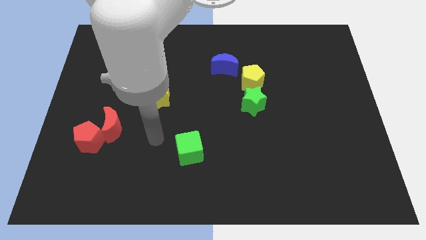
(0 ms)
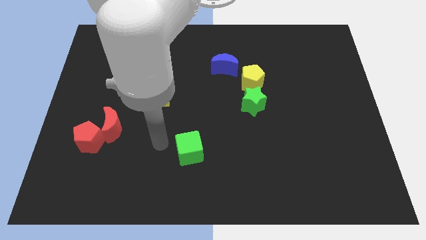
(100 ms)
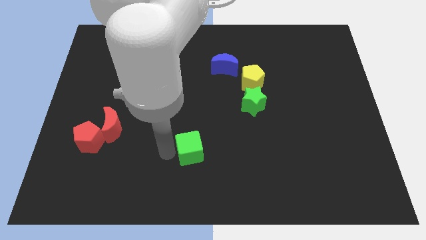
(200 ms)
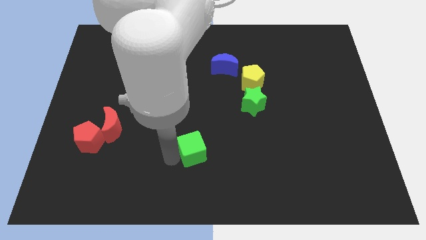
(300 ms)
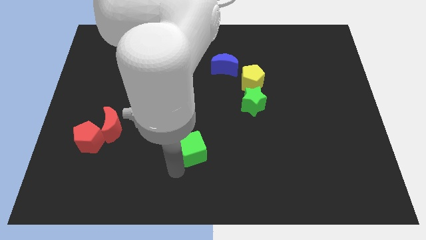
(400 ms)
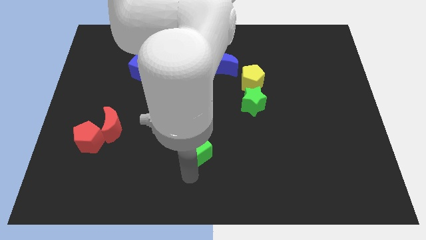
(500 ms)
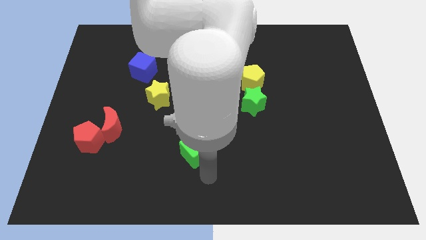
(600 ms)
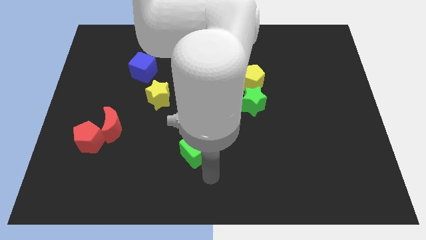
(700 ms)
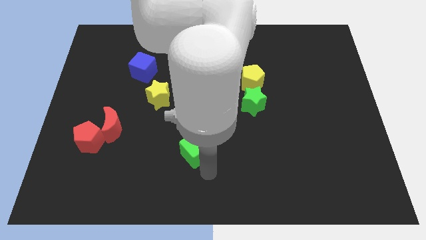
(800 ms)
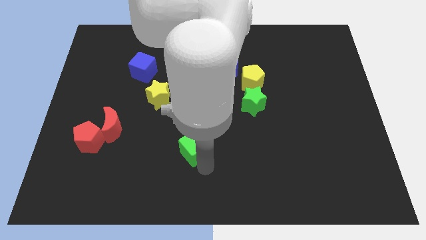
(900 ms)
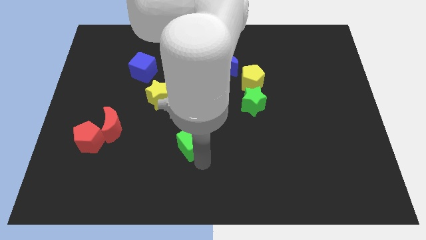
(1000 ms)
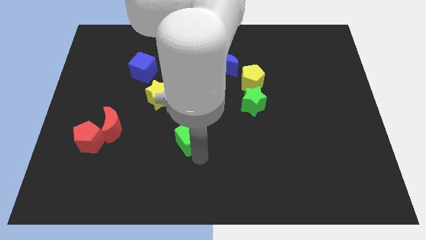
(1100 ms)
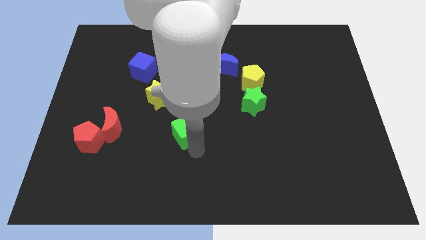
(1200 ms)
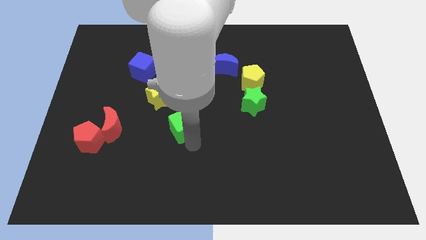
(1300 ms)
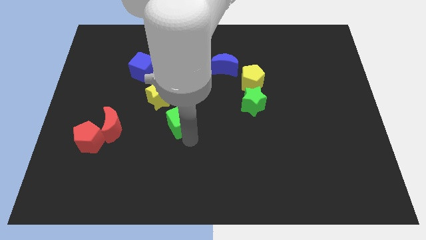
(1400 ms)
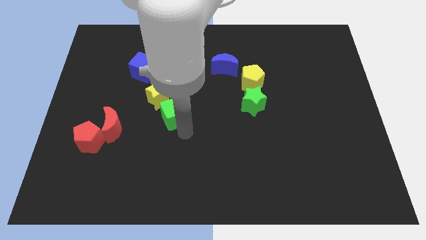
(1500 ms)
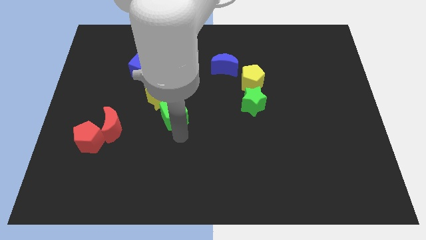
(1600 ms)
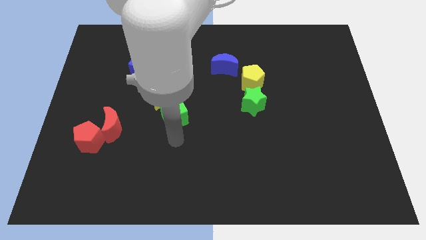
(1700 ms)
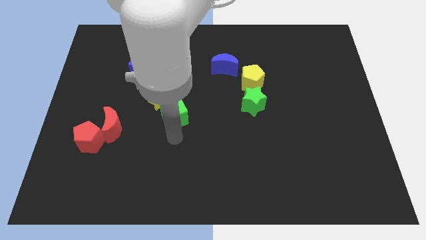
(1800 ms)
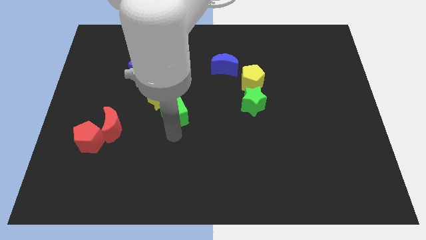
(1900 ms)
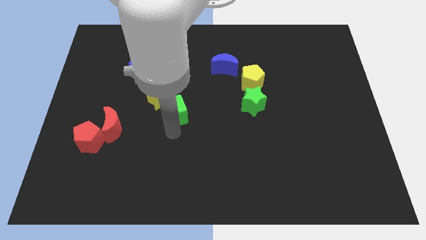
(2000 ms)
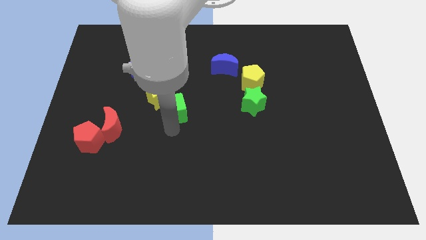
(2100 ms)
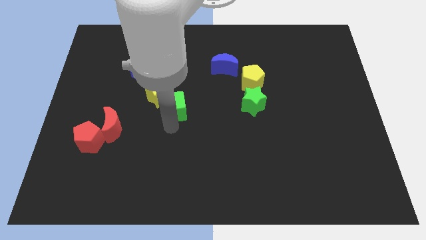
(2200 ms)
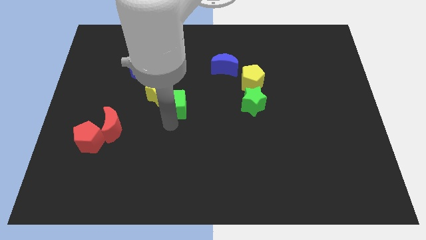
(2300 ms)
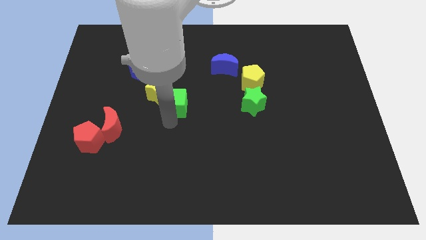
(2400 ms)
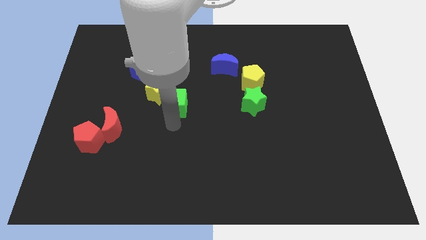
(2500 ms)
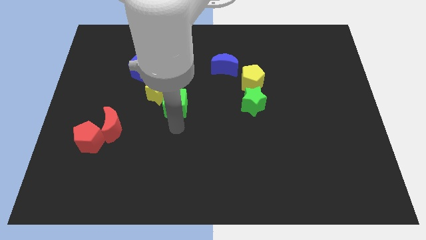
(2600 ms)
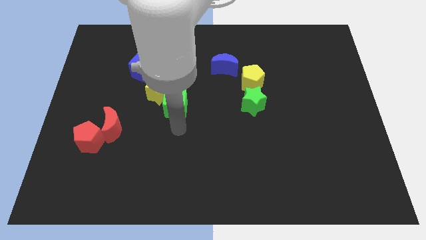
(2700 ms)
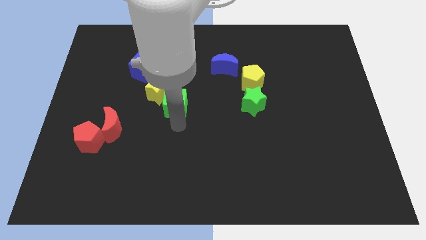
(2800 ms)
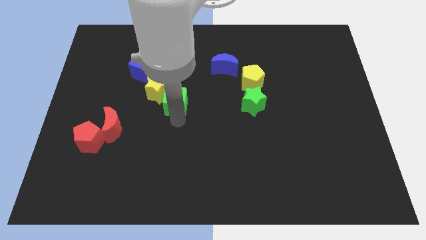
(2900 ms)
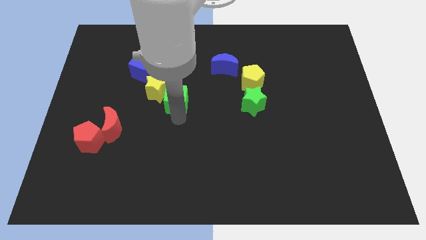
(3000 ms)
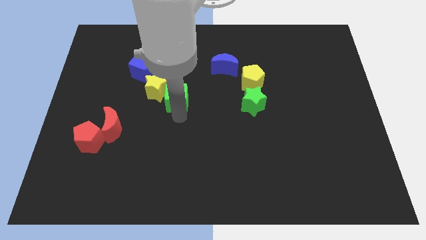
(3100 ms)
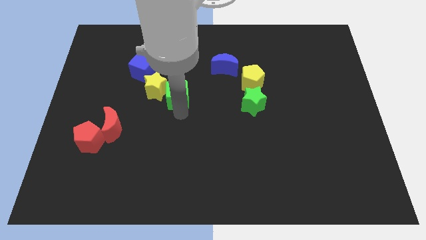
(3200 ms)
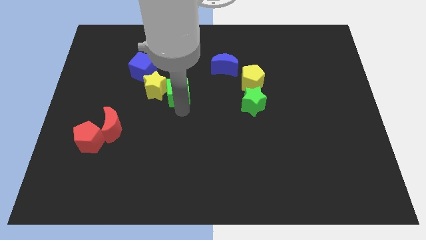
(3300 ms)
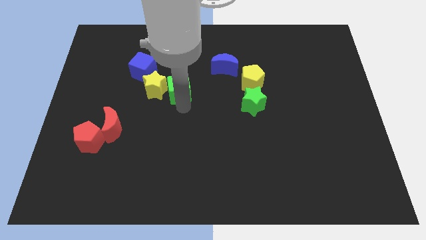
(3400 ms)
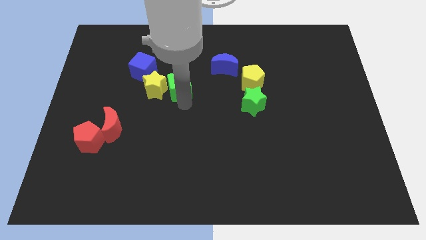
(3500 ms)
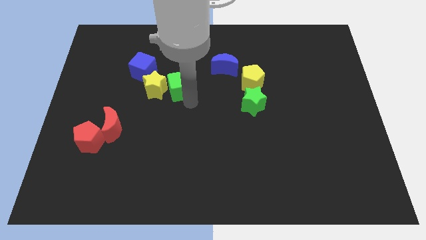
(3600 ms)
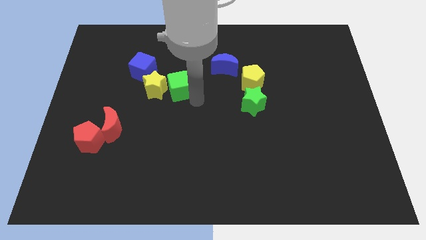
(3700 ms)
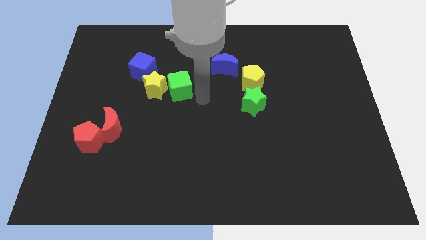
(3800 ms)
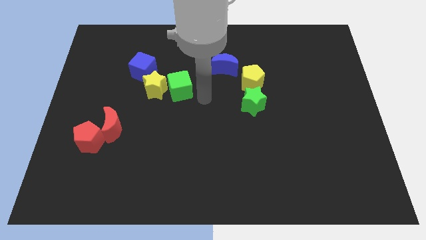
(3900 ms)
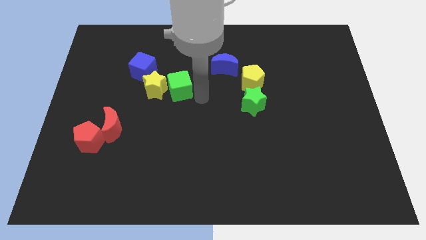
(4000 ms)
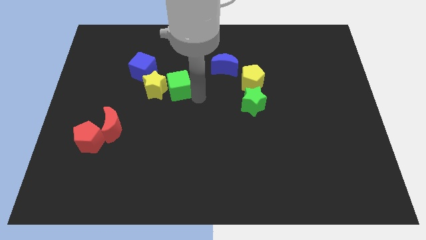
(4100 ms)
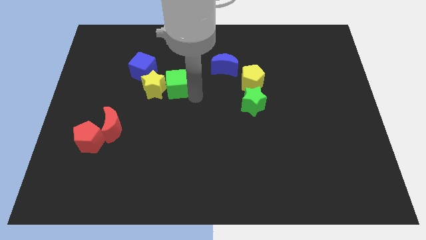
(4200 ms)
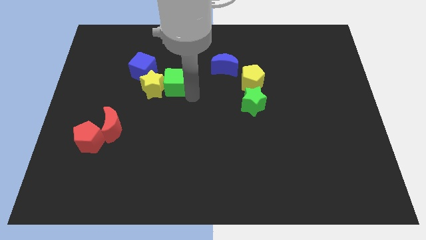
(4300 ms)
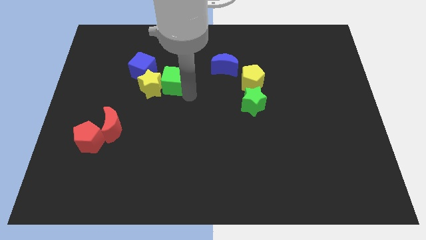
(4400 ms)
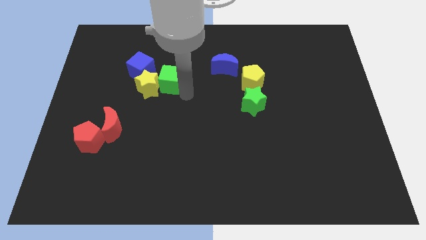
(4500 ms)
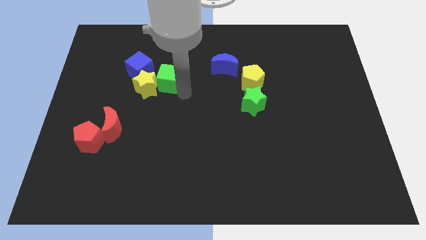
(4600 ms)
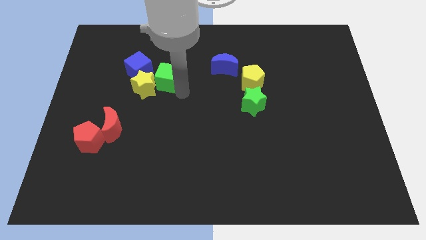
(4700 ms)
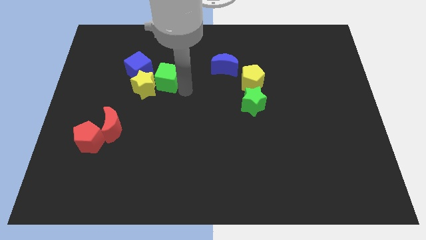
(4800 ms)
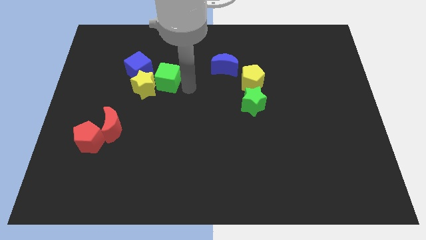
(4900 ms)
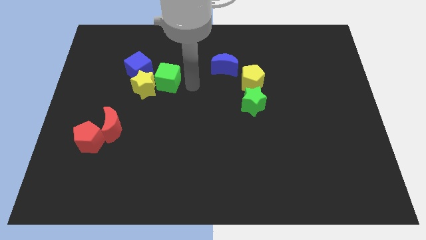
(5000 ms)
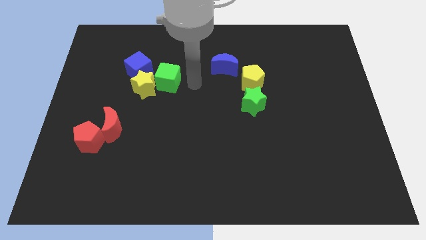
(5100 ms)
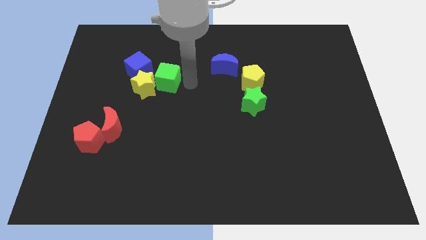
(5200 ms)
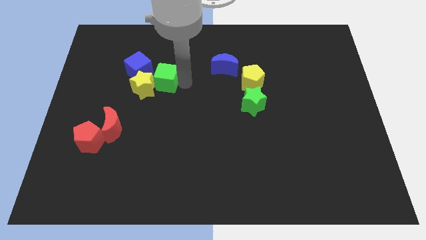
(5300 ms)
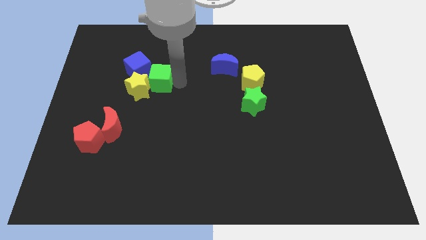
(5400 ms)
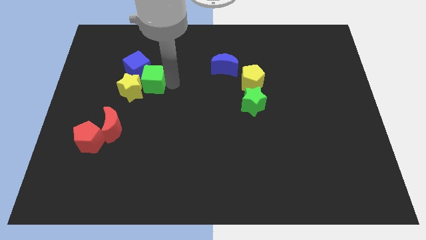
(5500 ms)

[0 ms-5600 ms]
move the green cube to the blue cube

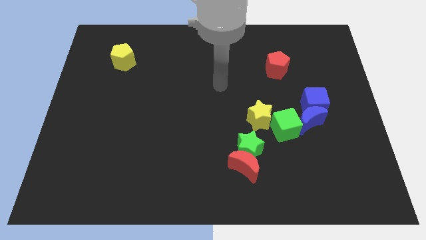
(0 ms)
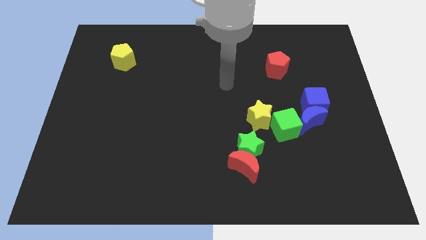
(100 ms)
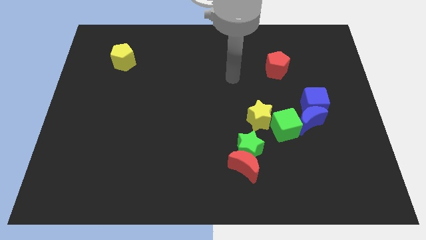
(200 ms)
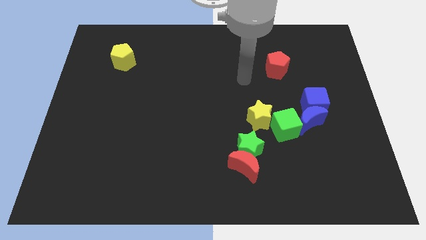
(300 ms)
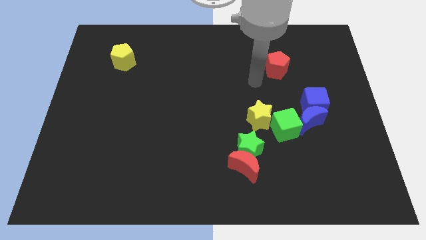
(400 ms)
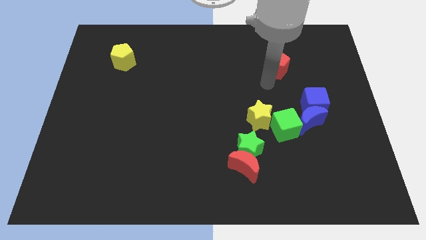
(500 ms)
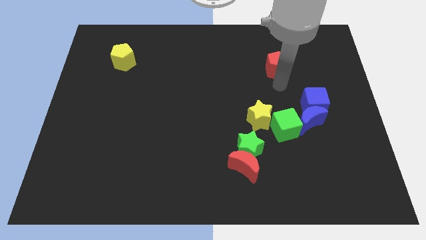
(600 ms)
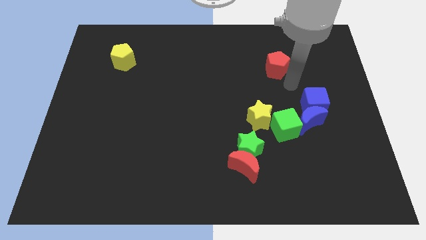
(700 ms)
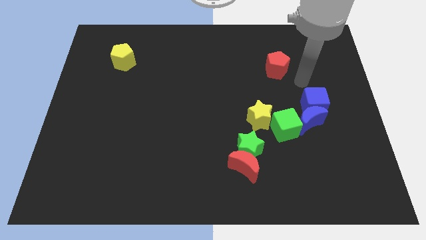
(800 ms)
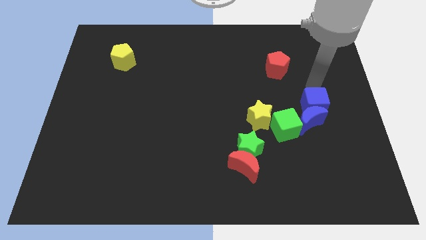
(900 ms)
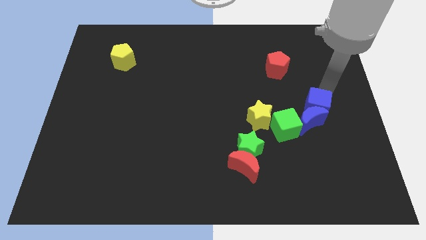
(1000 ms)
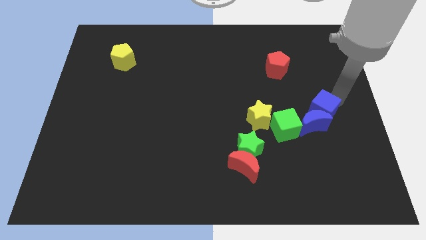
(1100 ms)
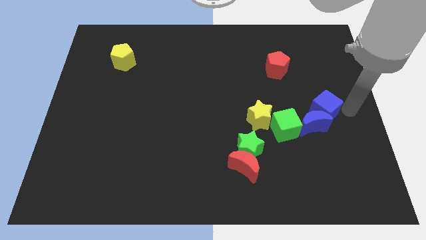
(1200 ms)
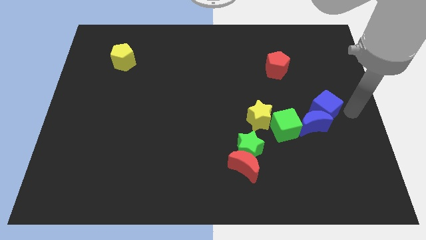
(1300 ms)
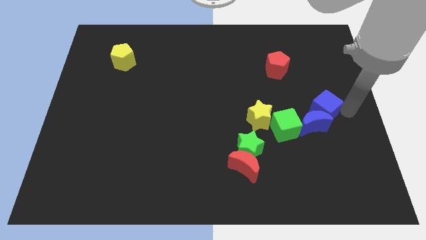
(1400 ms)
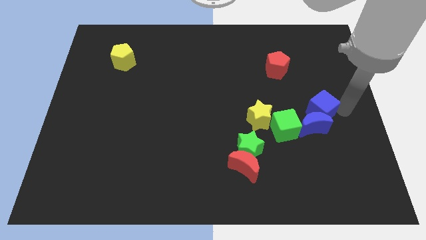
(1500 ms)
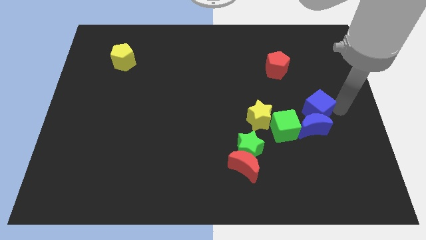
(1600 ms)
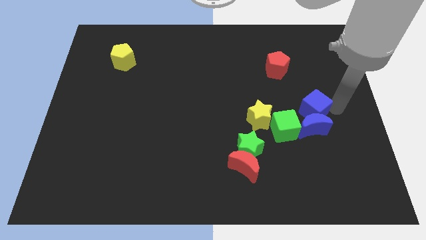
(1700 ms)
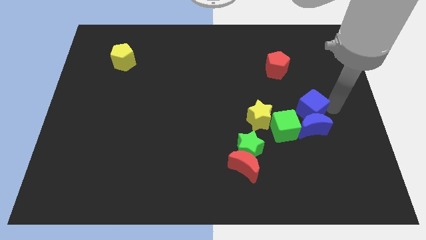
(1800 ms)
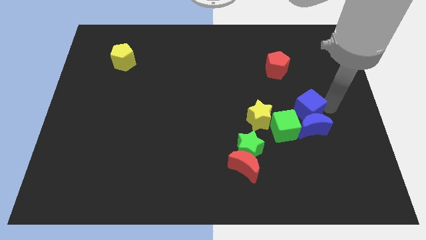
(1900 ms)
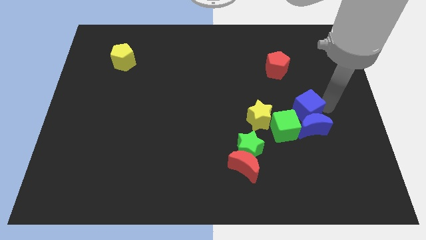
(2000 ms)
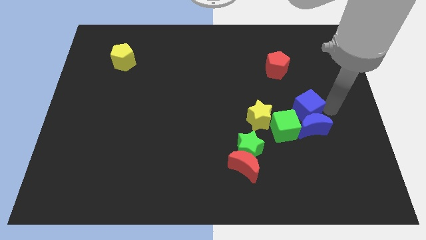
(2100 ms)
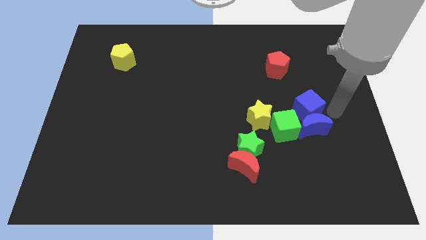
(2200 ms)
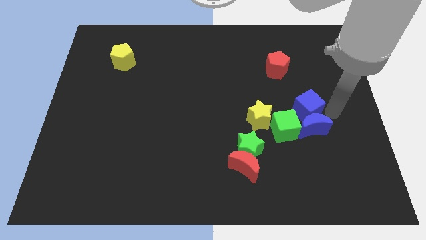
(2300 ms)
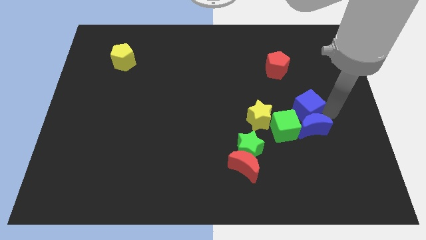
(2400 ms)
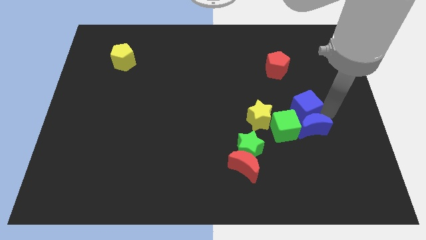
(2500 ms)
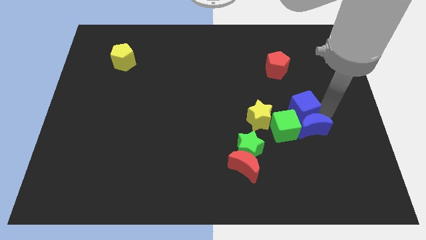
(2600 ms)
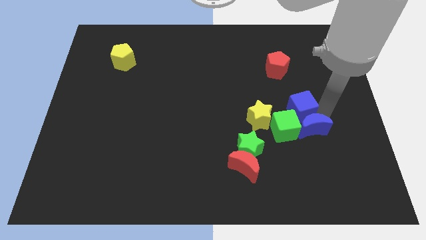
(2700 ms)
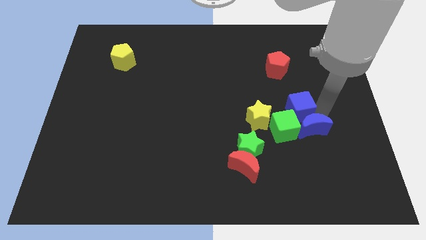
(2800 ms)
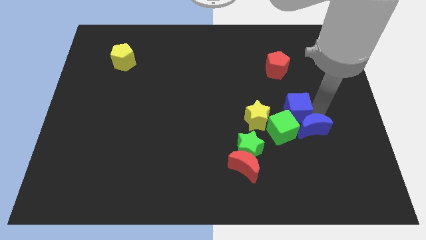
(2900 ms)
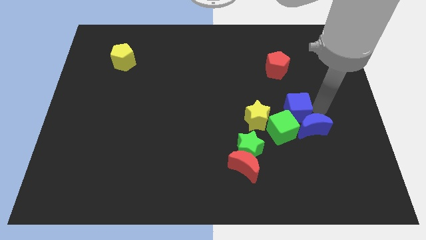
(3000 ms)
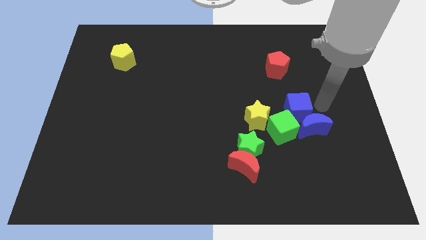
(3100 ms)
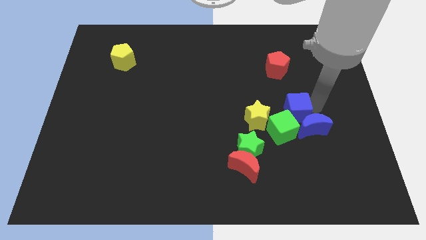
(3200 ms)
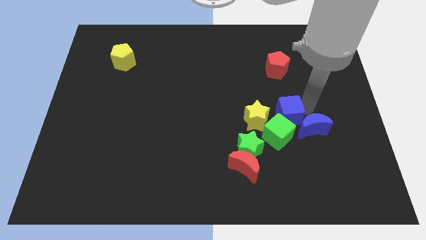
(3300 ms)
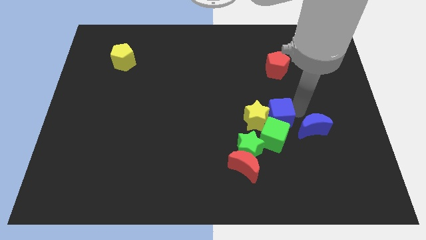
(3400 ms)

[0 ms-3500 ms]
move the blue cube to the yellow star
